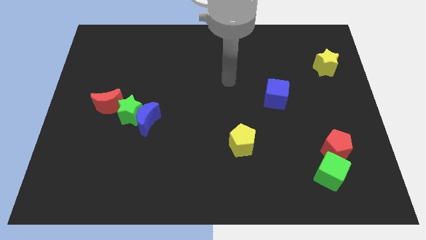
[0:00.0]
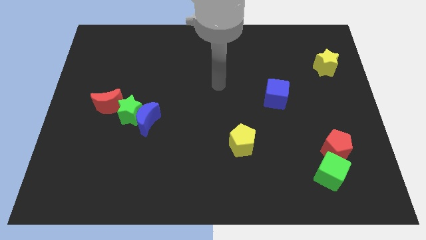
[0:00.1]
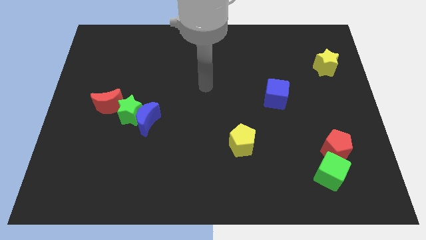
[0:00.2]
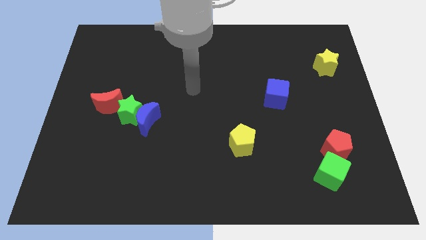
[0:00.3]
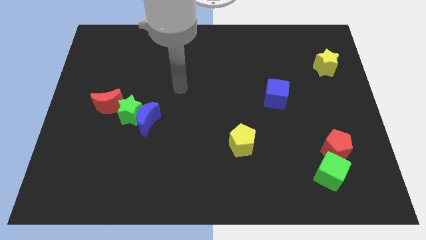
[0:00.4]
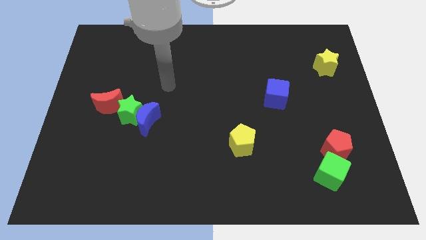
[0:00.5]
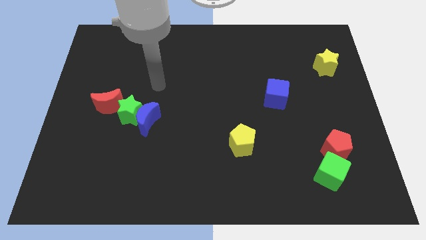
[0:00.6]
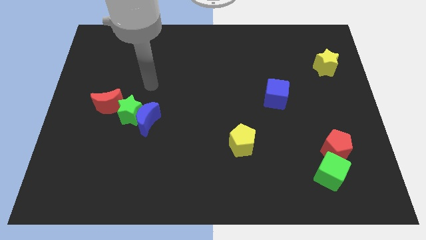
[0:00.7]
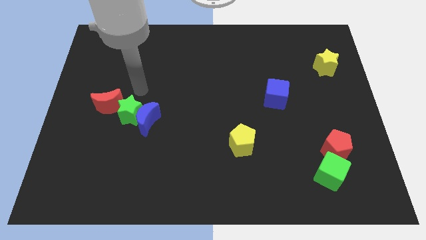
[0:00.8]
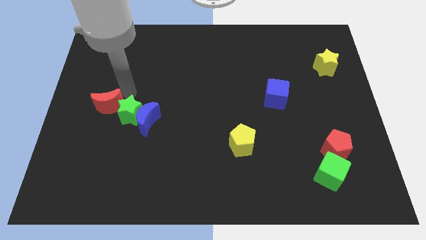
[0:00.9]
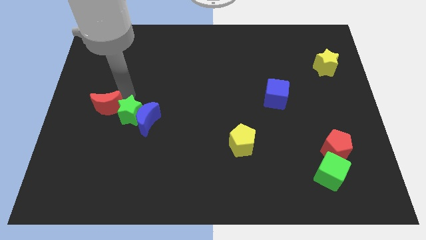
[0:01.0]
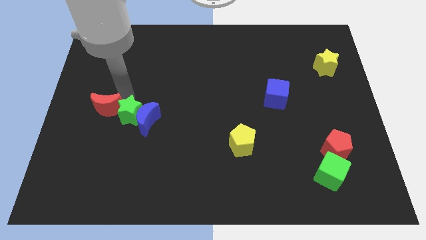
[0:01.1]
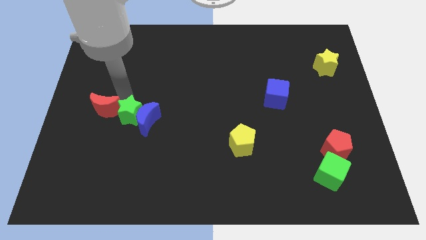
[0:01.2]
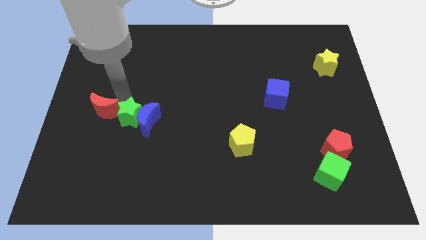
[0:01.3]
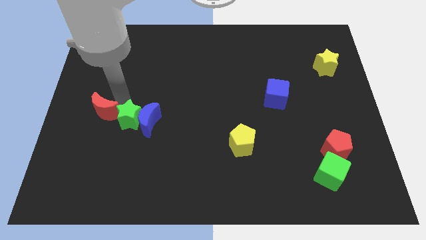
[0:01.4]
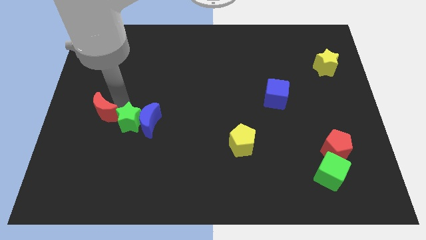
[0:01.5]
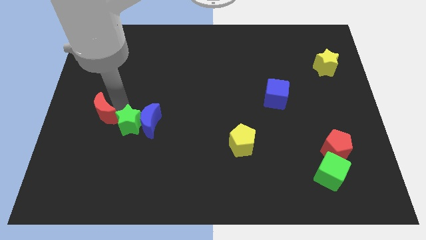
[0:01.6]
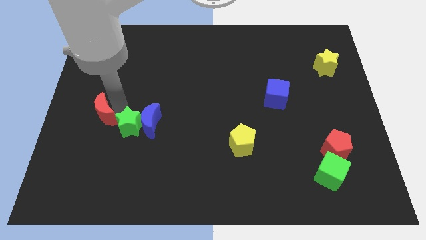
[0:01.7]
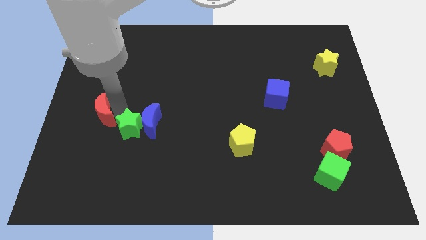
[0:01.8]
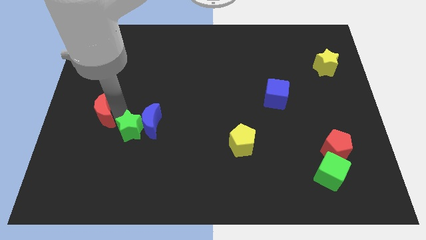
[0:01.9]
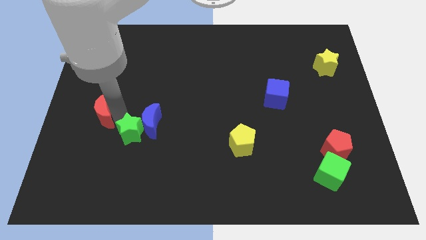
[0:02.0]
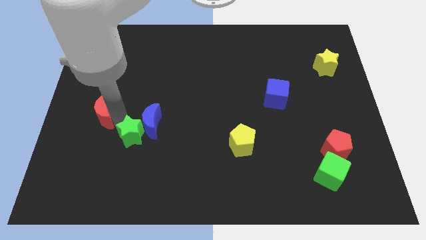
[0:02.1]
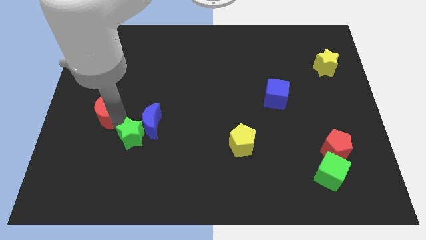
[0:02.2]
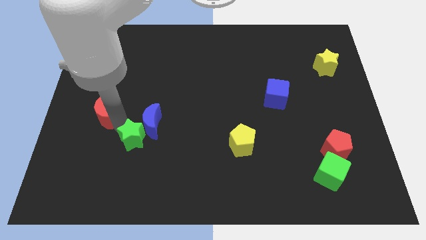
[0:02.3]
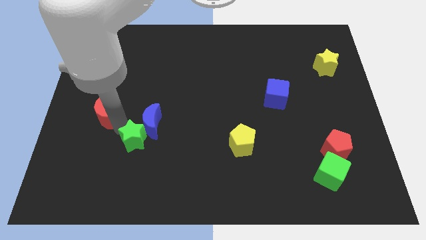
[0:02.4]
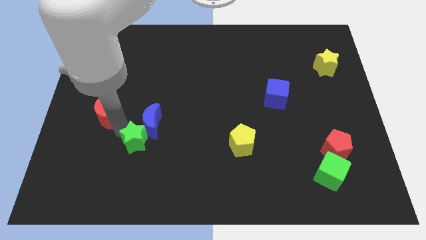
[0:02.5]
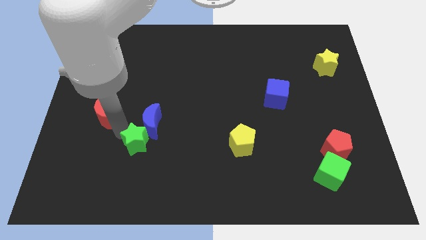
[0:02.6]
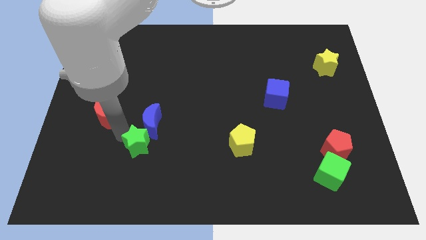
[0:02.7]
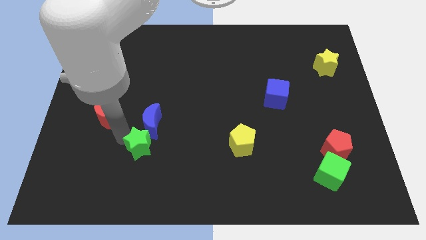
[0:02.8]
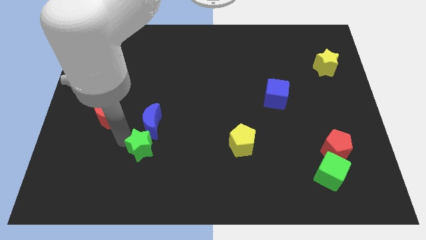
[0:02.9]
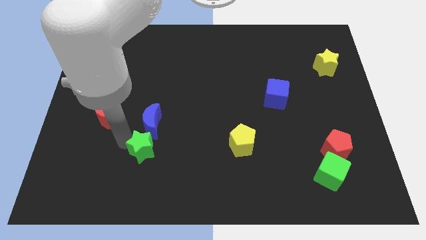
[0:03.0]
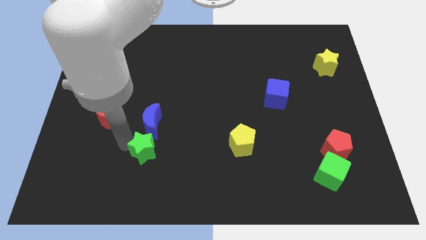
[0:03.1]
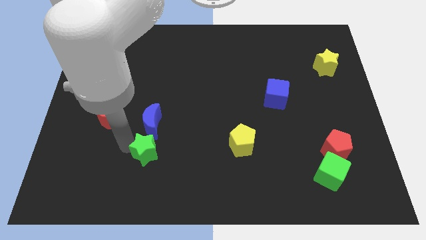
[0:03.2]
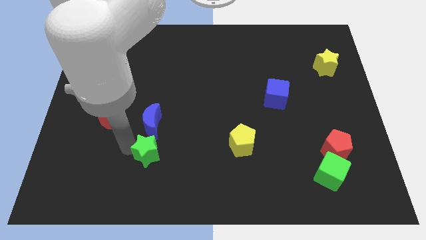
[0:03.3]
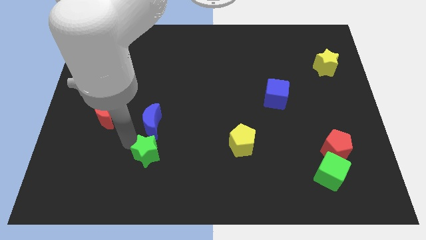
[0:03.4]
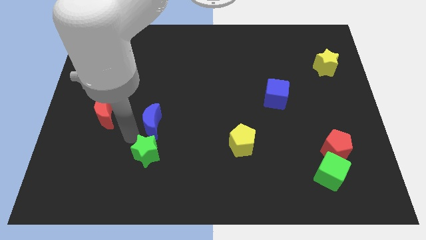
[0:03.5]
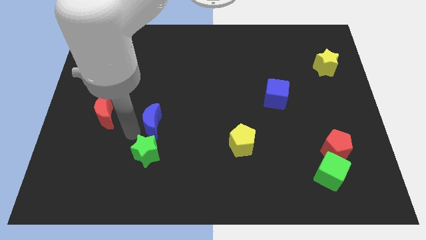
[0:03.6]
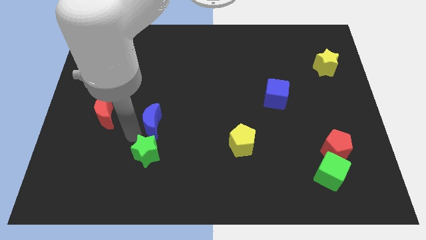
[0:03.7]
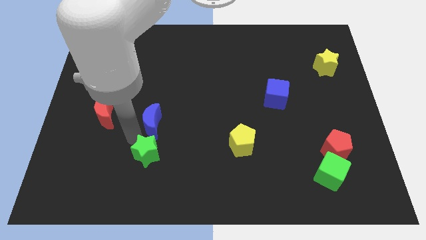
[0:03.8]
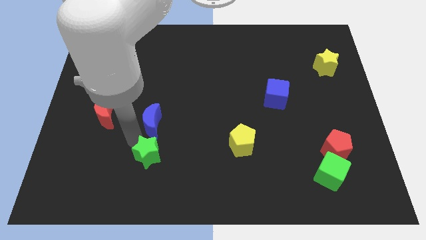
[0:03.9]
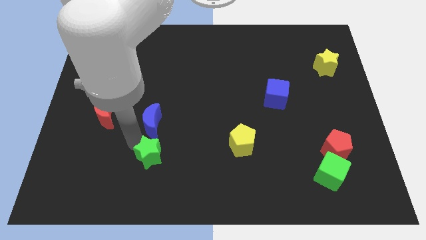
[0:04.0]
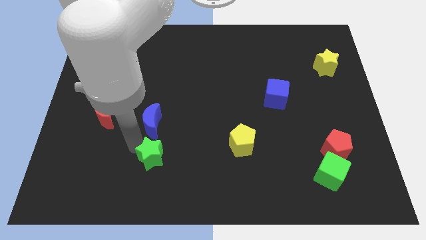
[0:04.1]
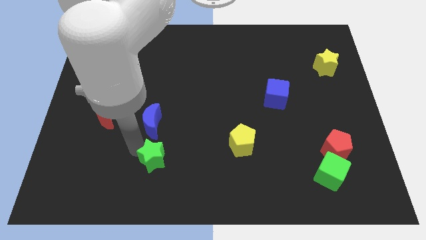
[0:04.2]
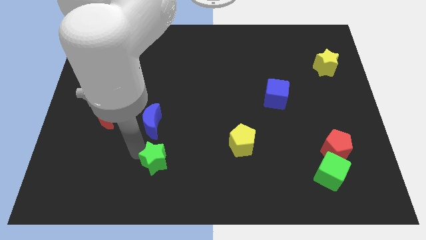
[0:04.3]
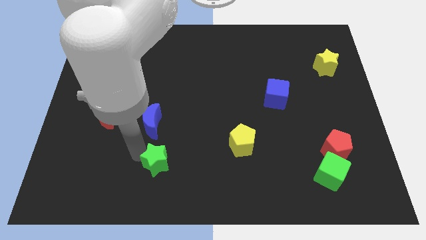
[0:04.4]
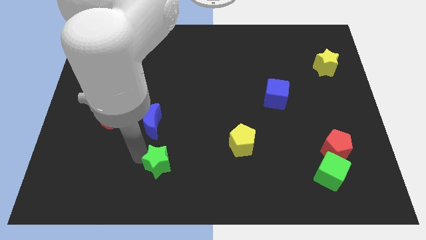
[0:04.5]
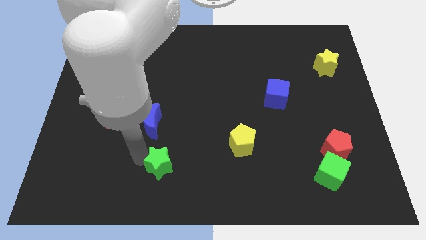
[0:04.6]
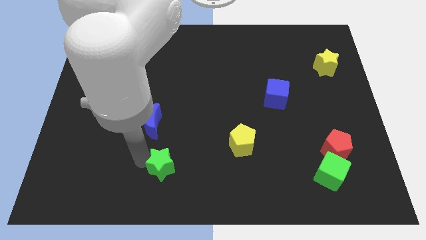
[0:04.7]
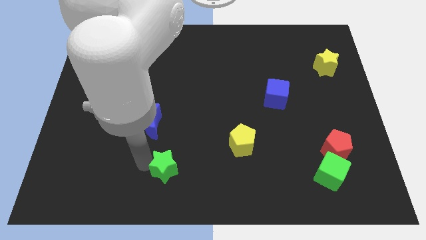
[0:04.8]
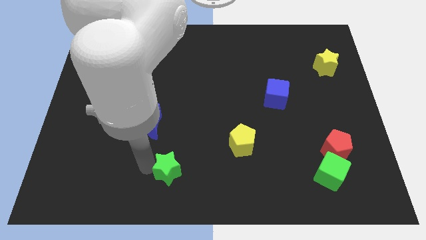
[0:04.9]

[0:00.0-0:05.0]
push the green star to the bottom

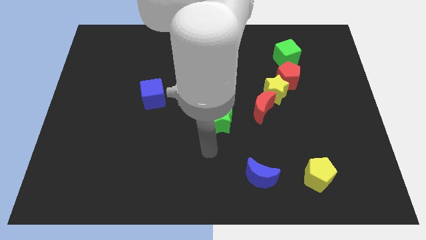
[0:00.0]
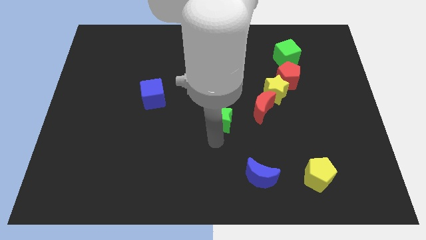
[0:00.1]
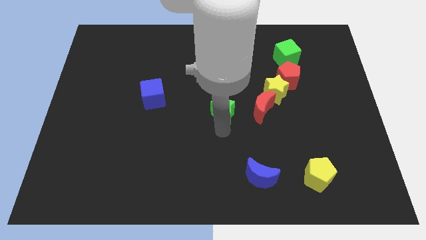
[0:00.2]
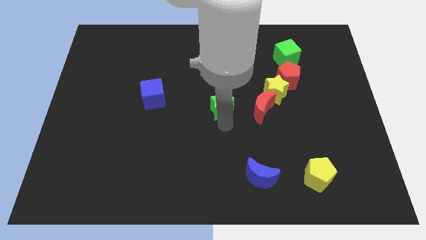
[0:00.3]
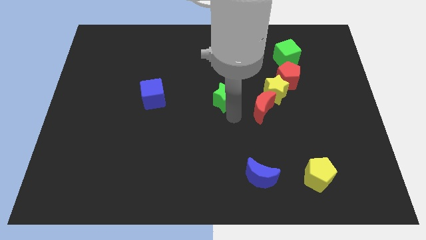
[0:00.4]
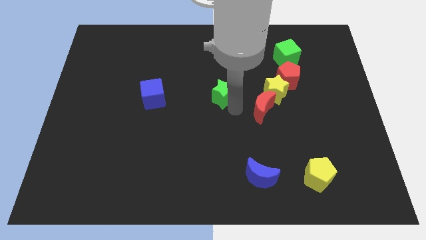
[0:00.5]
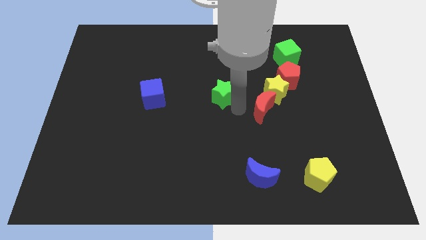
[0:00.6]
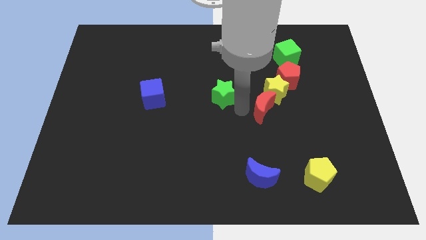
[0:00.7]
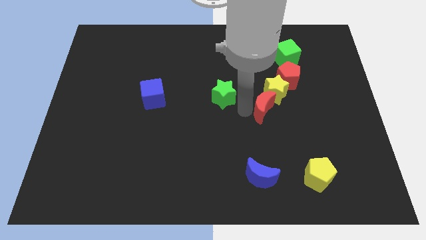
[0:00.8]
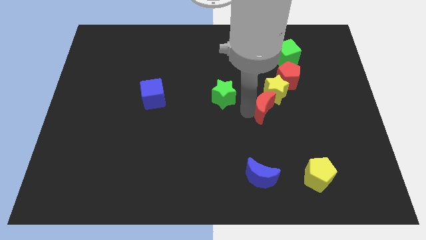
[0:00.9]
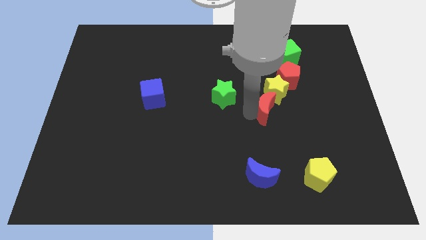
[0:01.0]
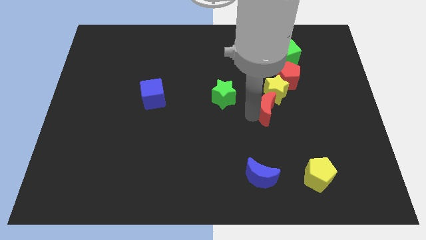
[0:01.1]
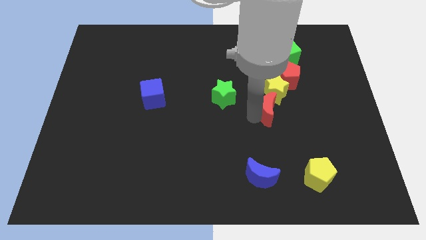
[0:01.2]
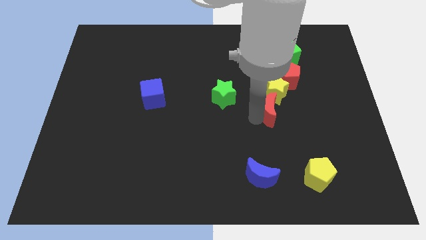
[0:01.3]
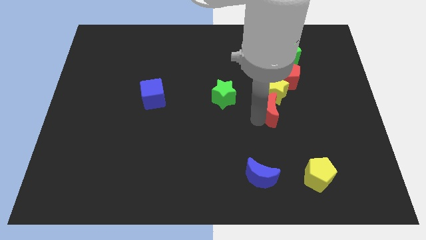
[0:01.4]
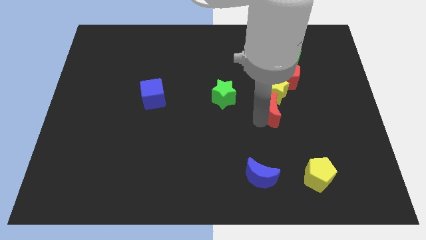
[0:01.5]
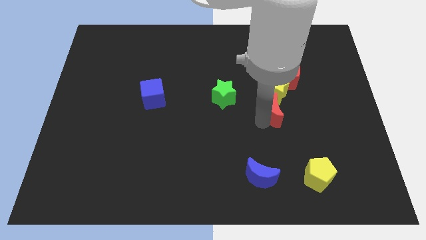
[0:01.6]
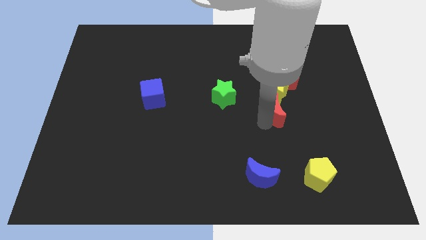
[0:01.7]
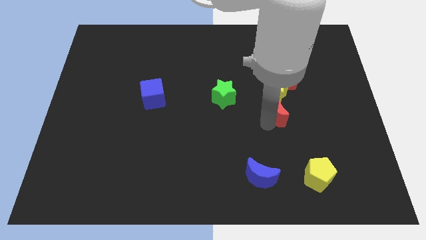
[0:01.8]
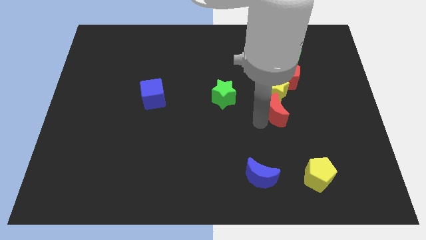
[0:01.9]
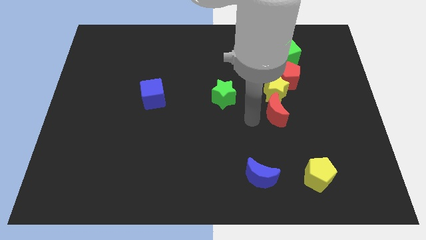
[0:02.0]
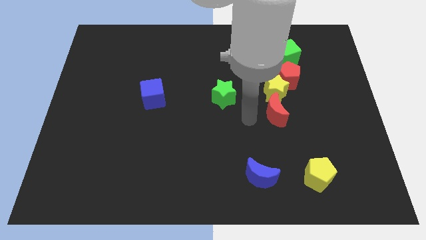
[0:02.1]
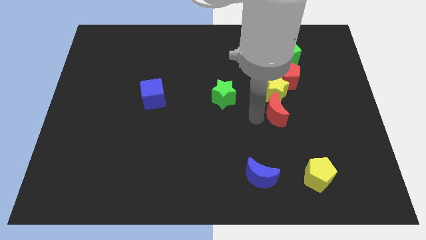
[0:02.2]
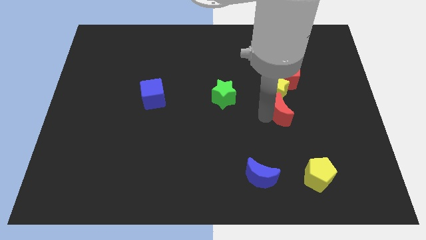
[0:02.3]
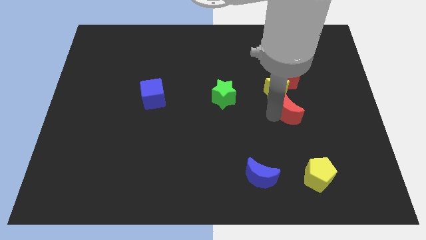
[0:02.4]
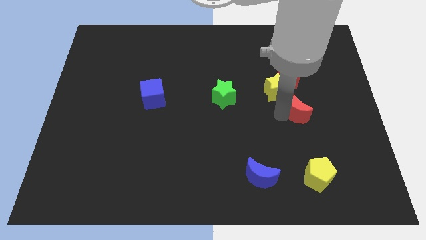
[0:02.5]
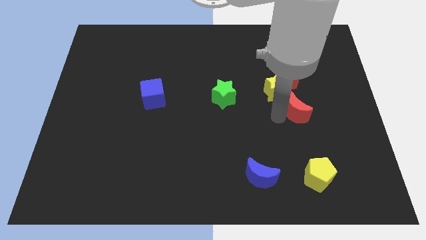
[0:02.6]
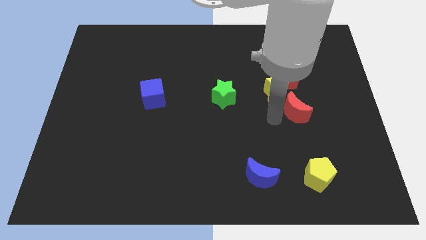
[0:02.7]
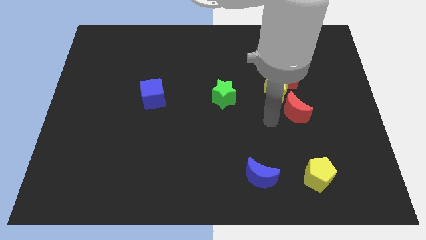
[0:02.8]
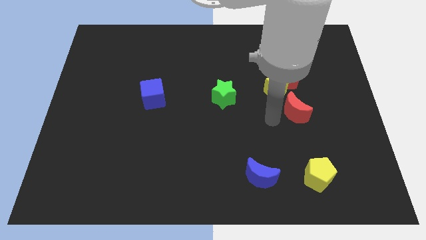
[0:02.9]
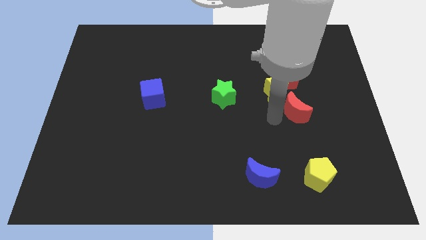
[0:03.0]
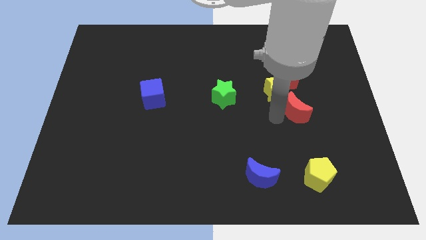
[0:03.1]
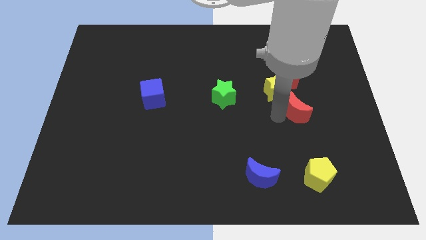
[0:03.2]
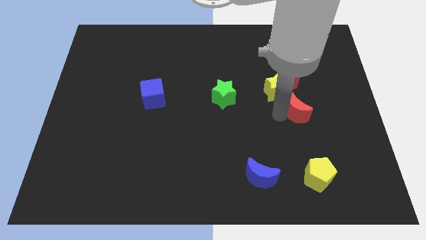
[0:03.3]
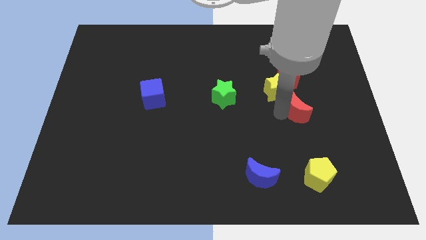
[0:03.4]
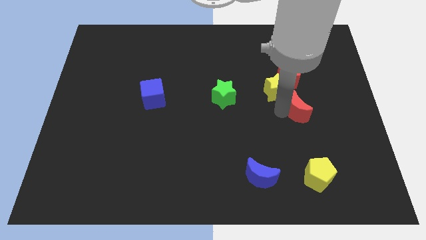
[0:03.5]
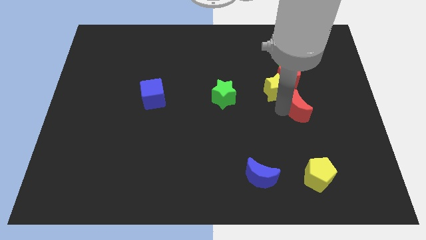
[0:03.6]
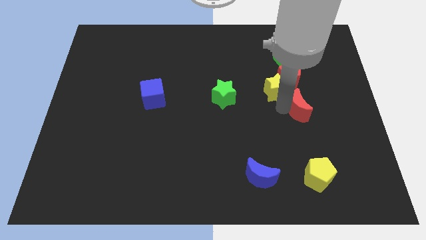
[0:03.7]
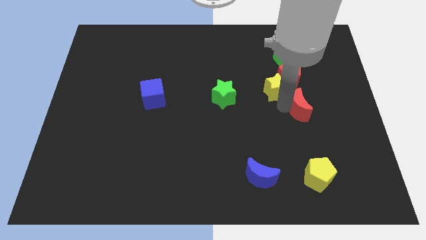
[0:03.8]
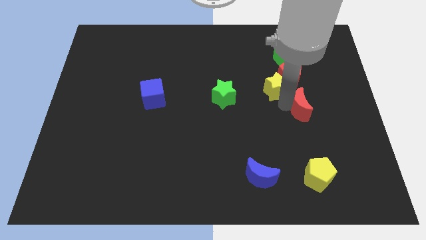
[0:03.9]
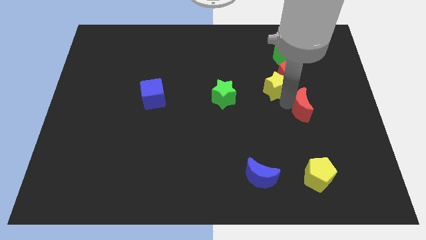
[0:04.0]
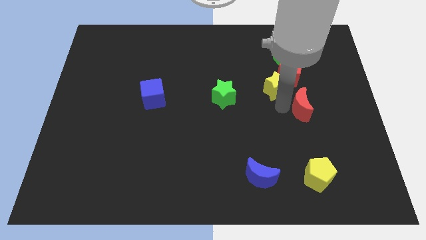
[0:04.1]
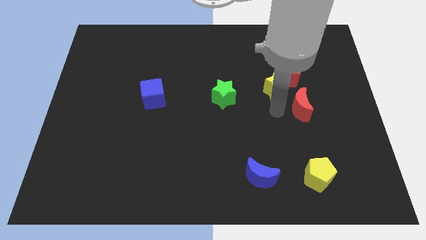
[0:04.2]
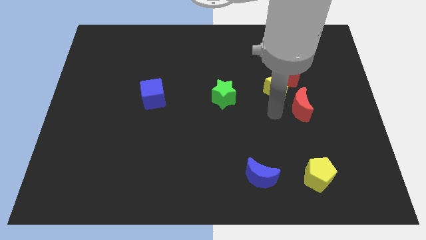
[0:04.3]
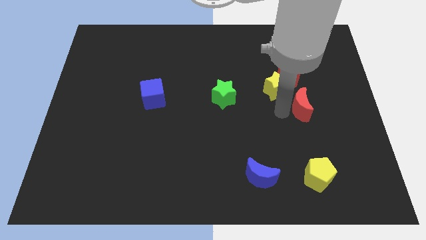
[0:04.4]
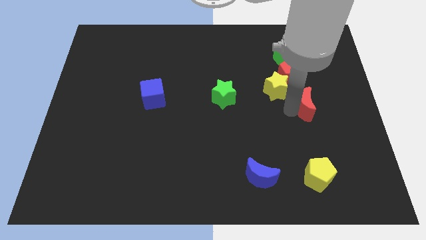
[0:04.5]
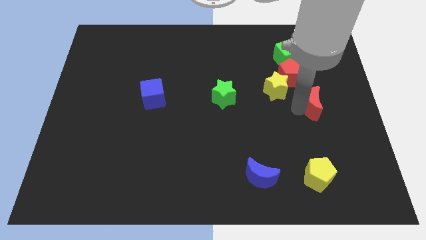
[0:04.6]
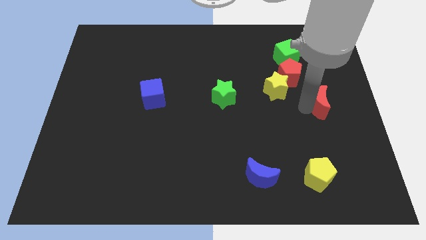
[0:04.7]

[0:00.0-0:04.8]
put the red moon to the center right
